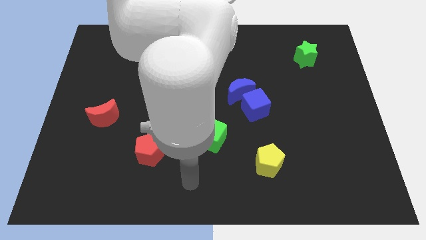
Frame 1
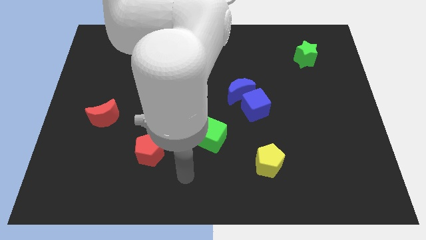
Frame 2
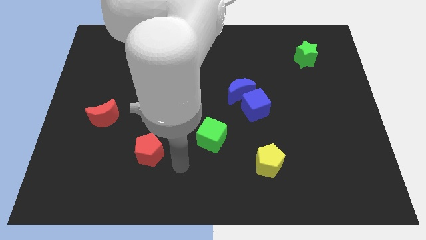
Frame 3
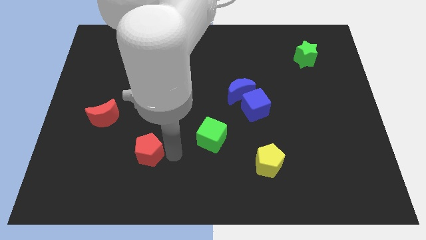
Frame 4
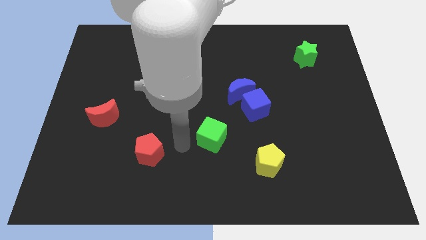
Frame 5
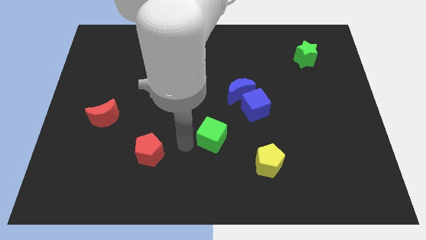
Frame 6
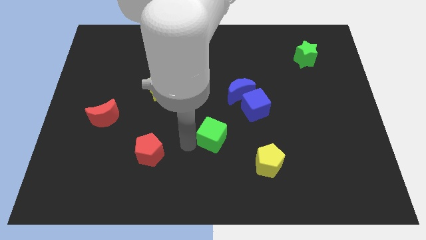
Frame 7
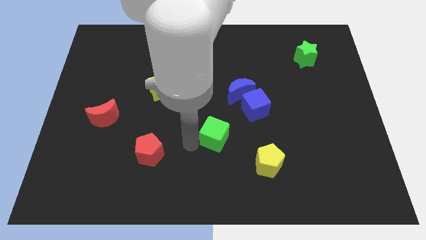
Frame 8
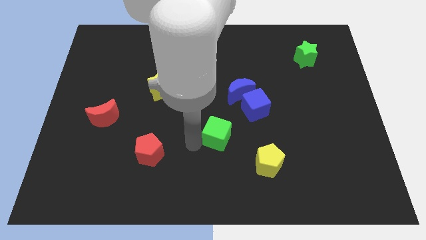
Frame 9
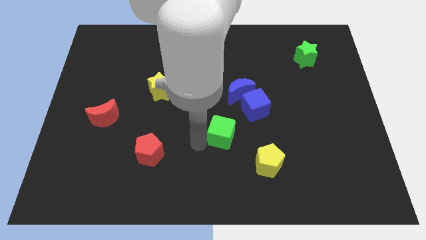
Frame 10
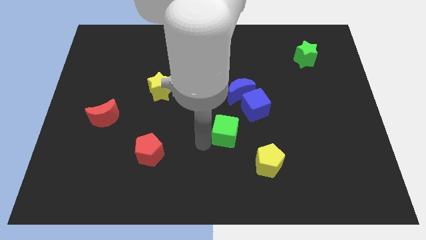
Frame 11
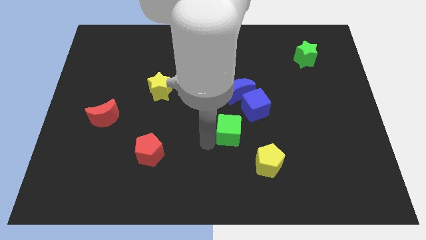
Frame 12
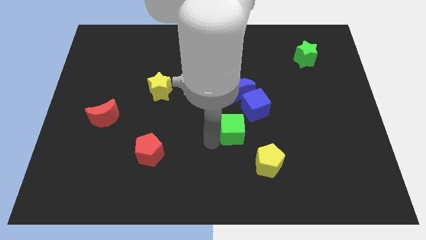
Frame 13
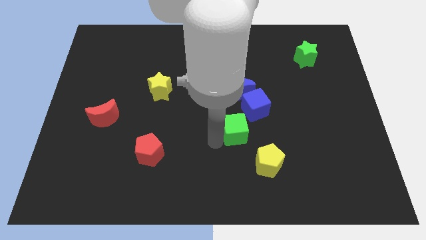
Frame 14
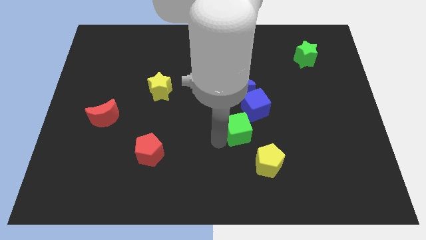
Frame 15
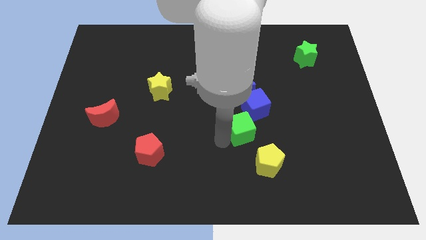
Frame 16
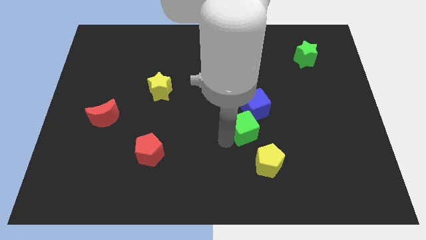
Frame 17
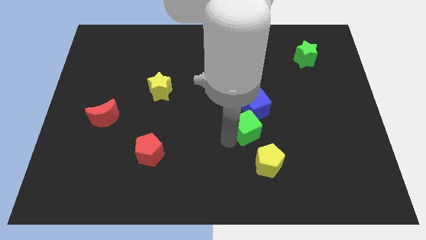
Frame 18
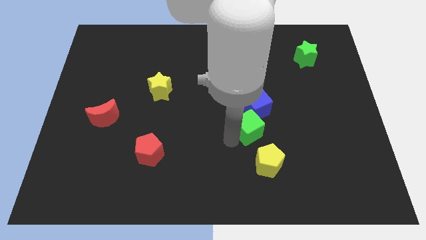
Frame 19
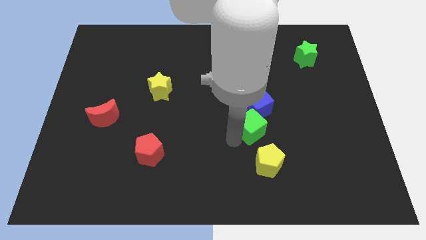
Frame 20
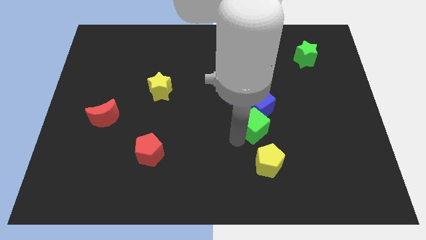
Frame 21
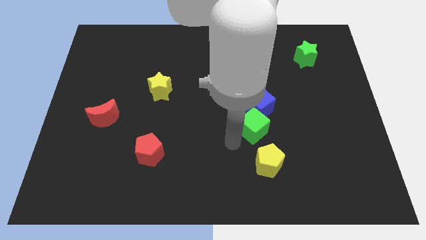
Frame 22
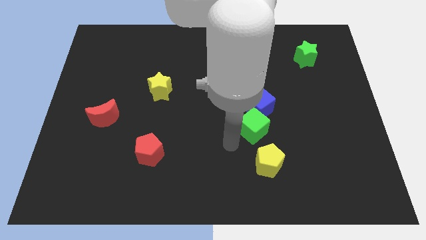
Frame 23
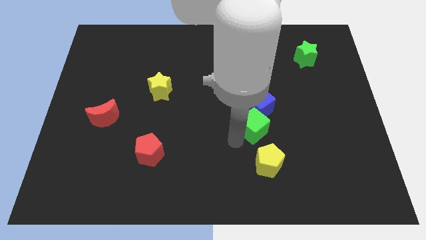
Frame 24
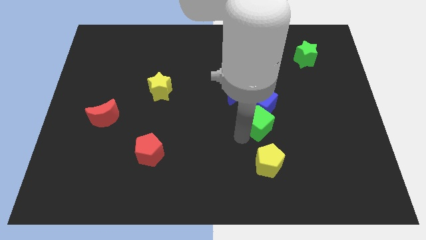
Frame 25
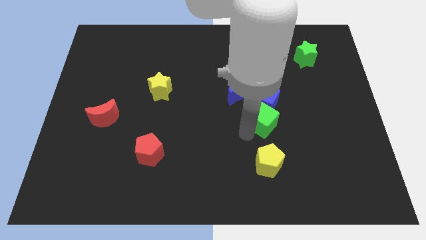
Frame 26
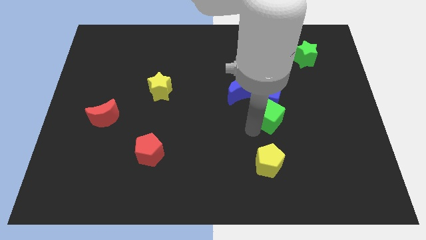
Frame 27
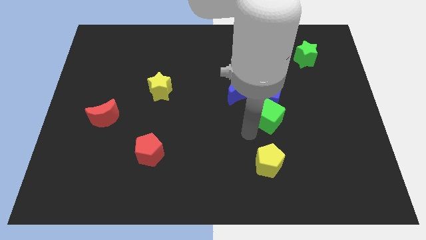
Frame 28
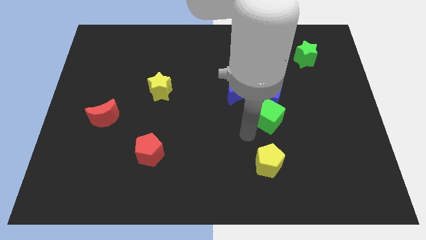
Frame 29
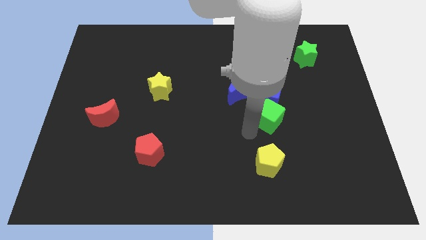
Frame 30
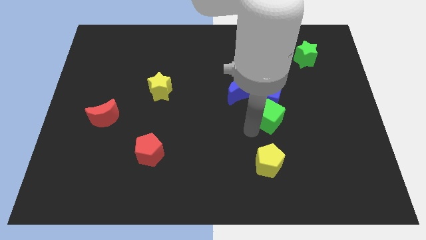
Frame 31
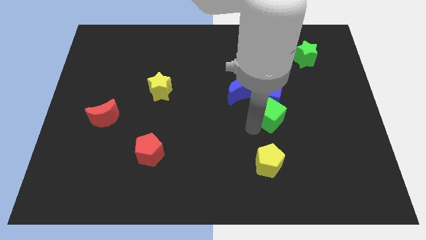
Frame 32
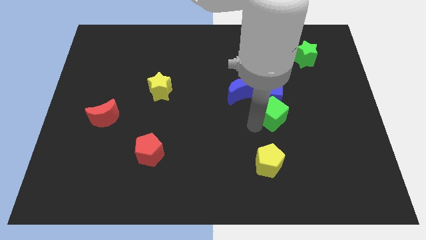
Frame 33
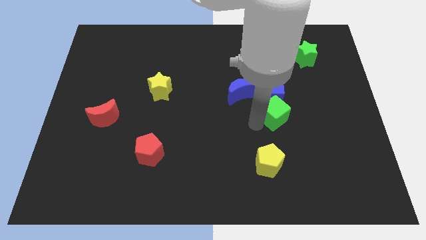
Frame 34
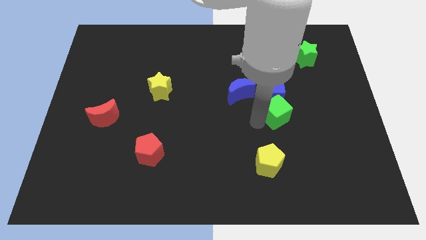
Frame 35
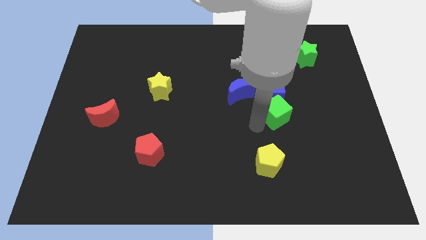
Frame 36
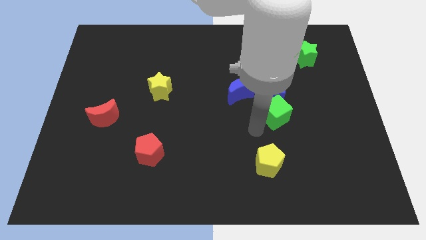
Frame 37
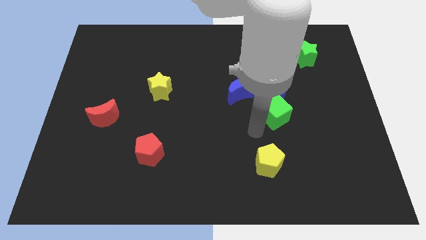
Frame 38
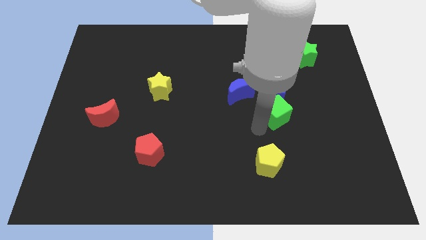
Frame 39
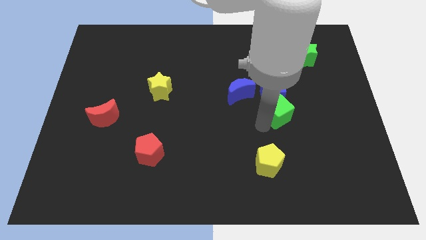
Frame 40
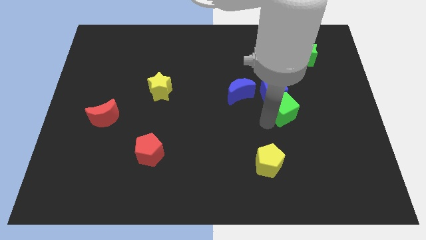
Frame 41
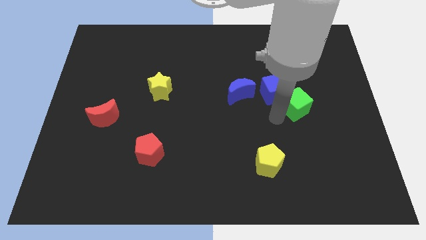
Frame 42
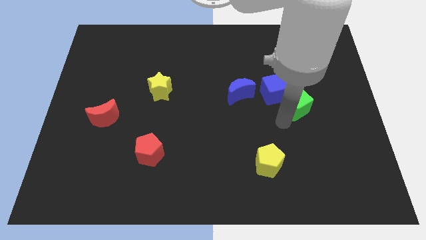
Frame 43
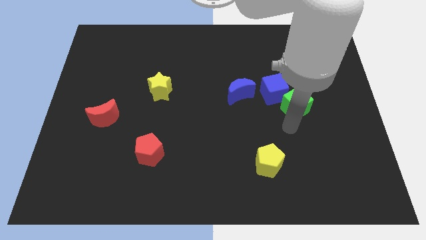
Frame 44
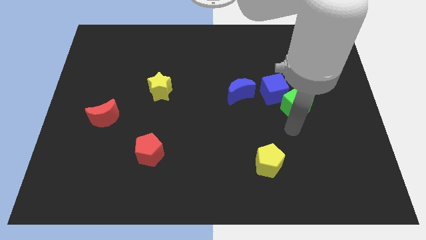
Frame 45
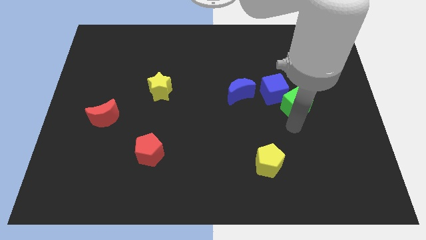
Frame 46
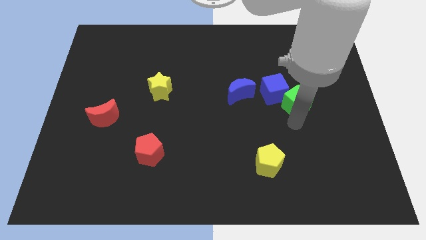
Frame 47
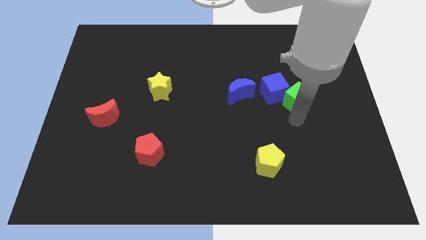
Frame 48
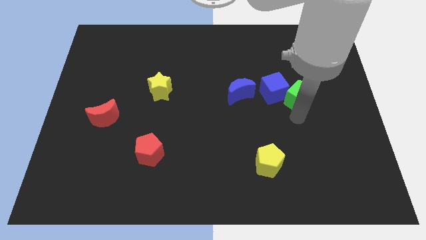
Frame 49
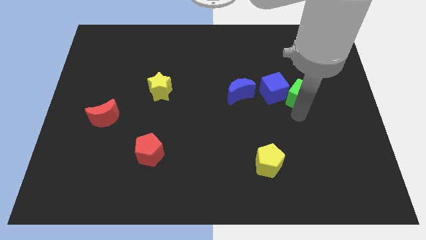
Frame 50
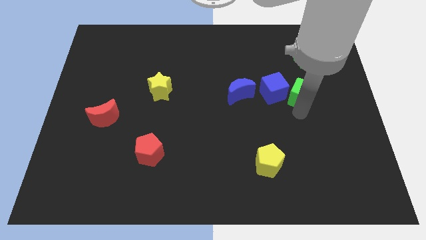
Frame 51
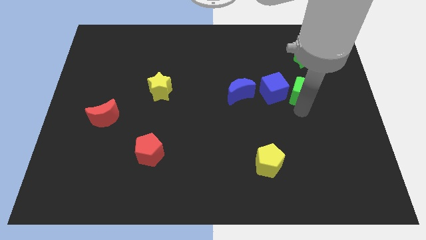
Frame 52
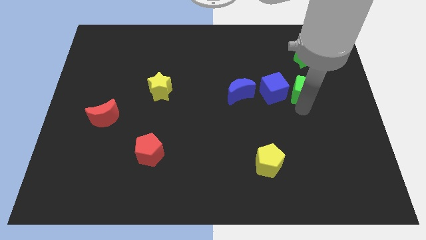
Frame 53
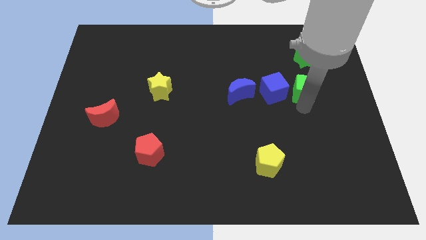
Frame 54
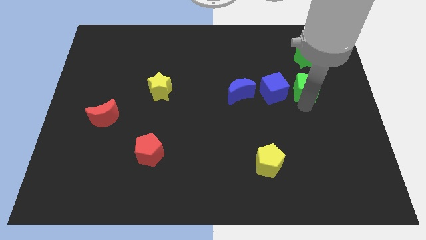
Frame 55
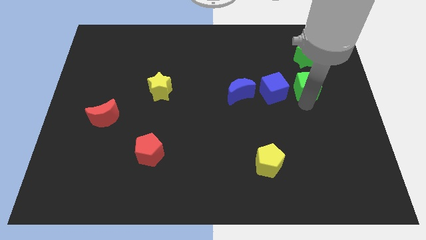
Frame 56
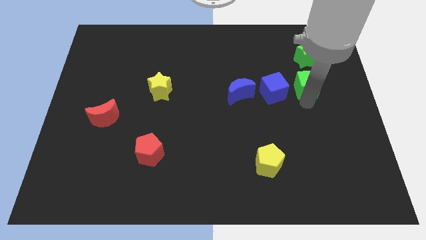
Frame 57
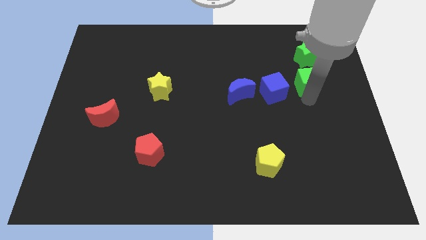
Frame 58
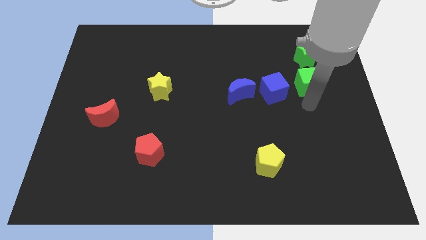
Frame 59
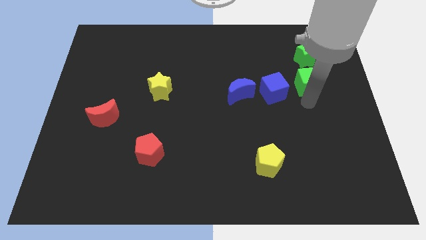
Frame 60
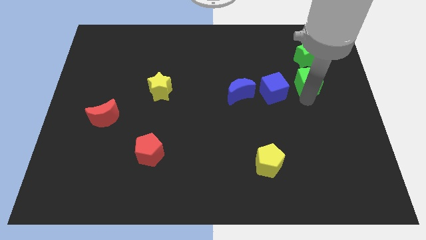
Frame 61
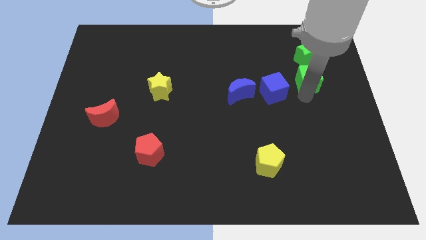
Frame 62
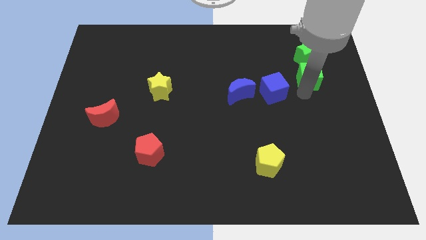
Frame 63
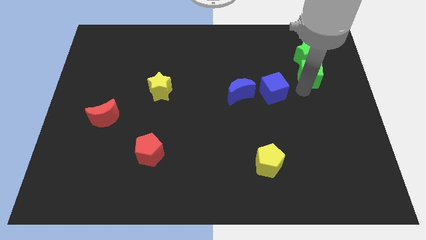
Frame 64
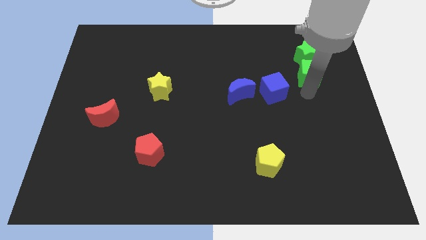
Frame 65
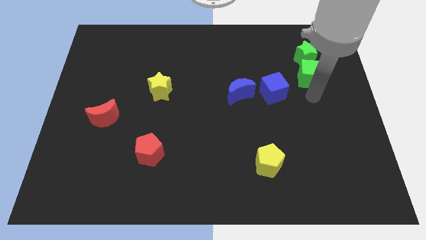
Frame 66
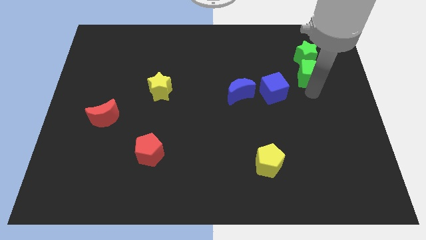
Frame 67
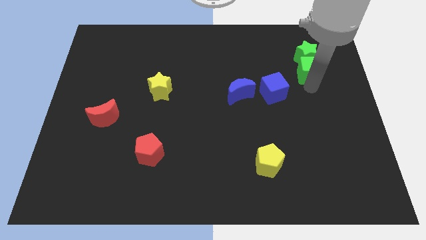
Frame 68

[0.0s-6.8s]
put the green cube to the green star
